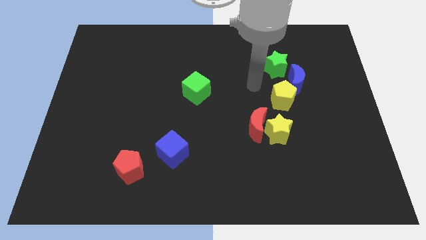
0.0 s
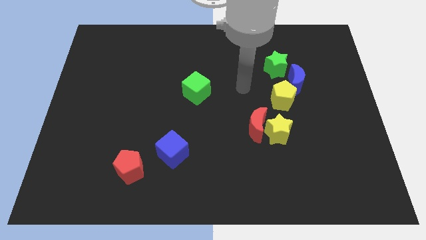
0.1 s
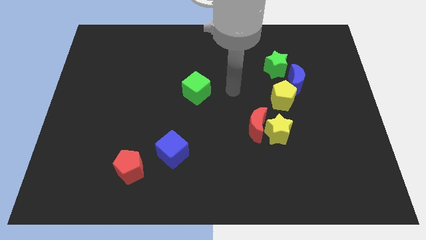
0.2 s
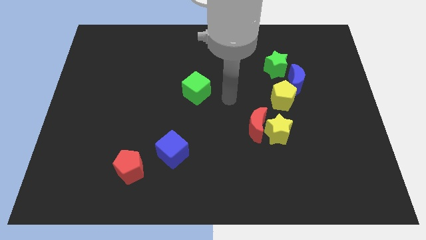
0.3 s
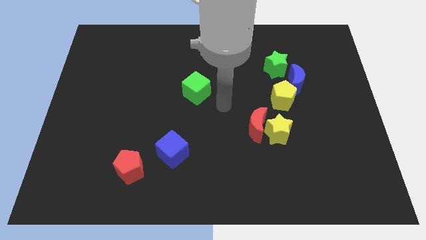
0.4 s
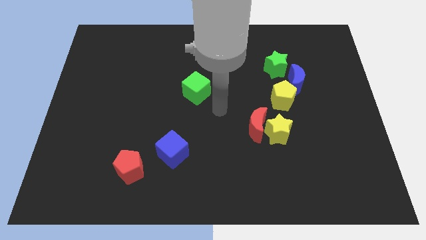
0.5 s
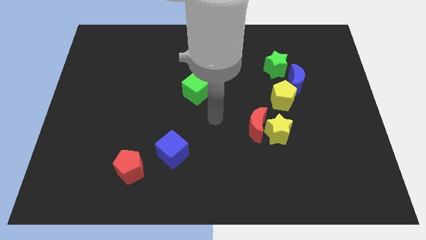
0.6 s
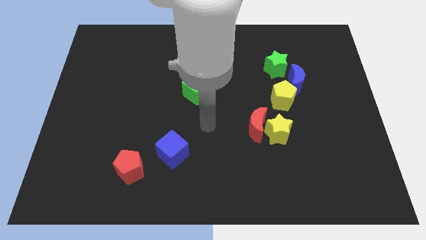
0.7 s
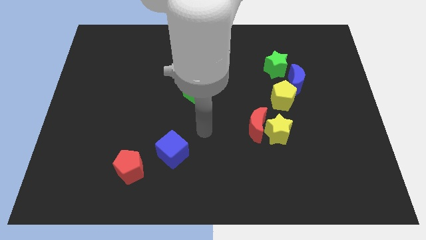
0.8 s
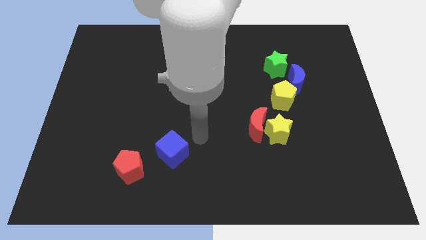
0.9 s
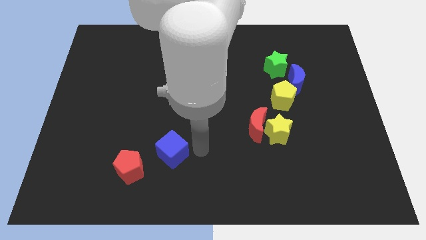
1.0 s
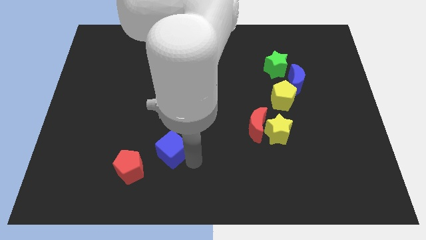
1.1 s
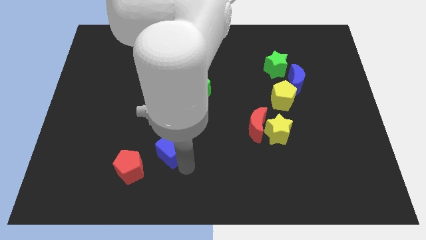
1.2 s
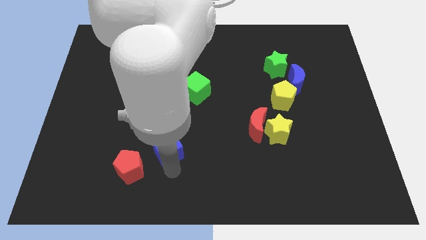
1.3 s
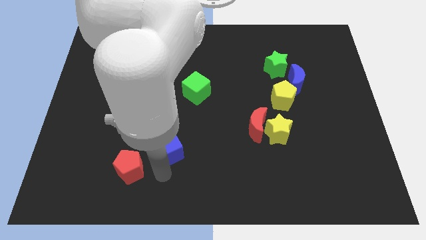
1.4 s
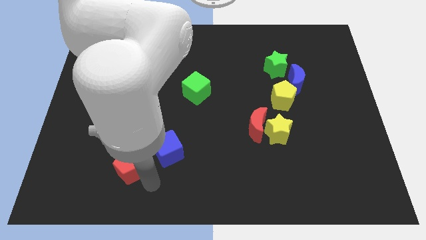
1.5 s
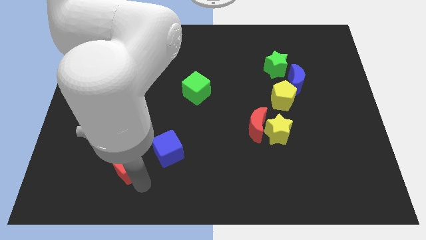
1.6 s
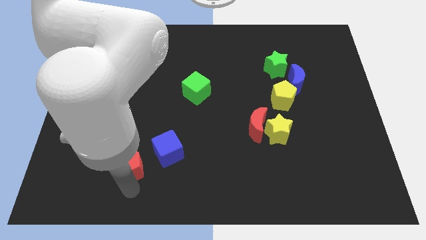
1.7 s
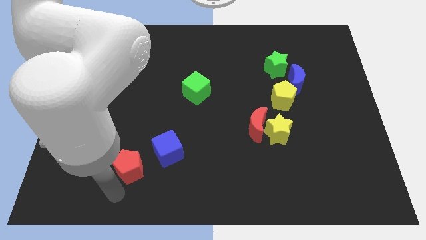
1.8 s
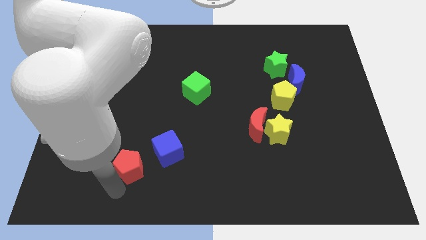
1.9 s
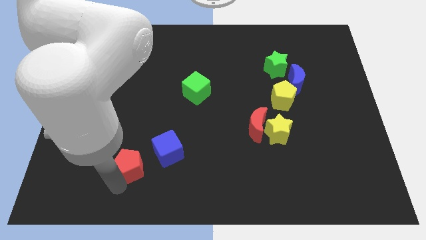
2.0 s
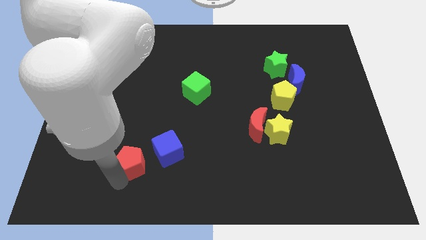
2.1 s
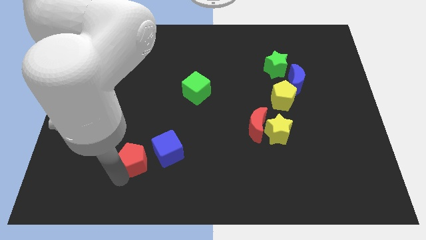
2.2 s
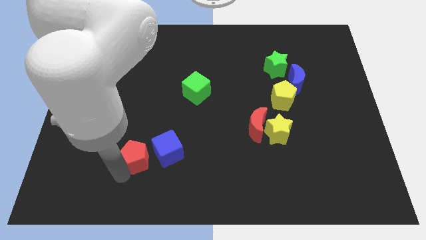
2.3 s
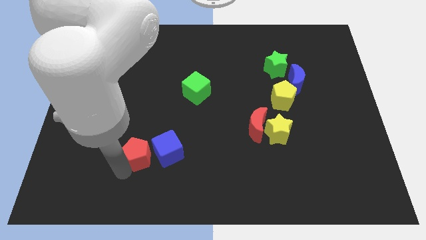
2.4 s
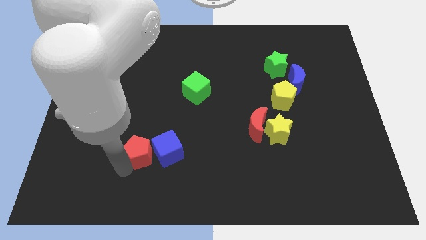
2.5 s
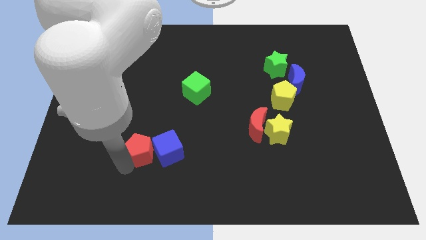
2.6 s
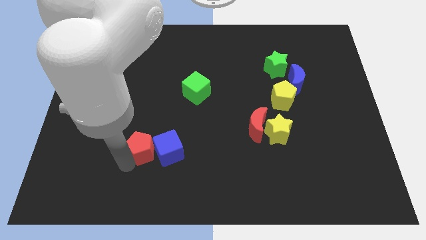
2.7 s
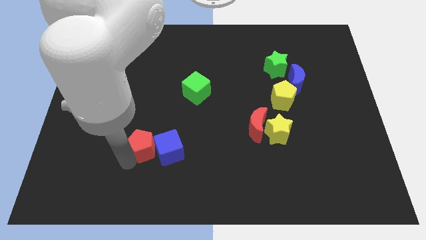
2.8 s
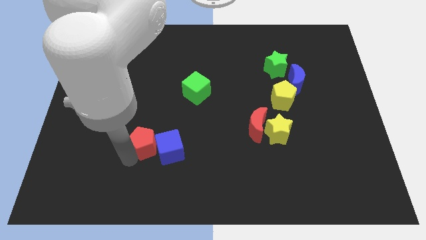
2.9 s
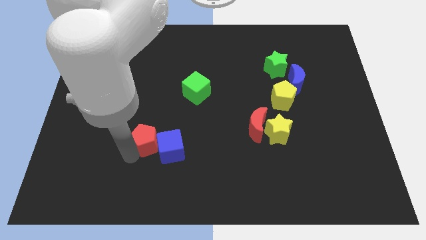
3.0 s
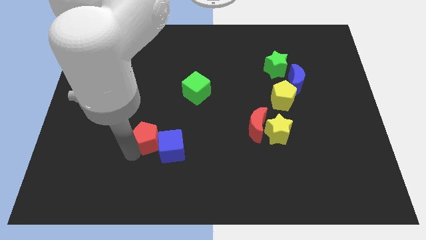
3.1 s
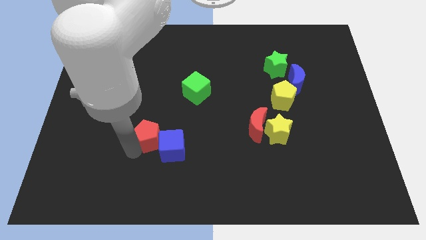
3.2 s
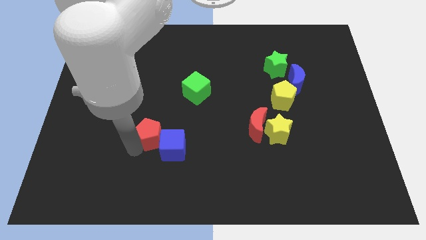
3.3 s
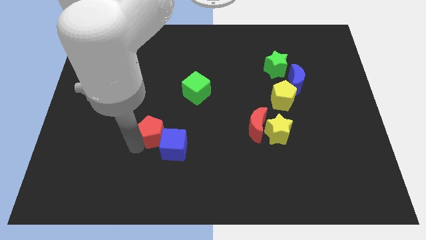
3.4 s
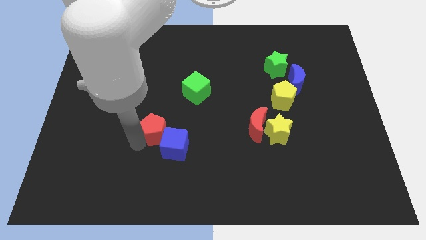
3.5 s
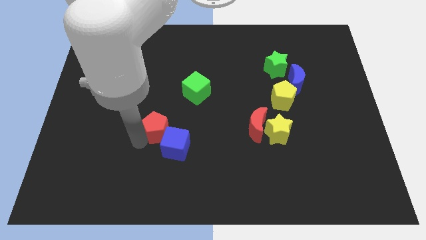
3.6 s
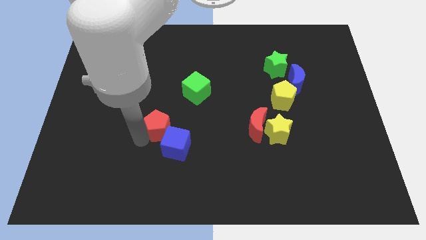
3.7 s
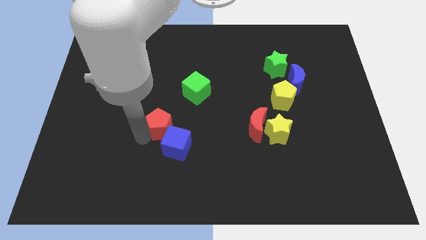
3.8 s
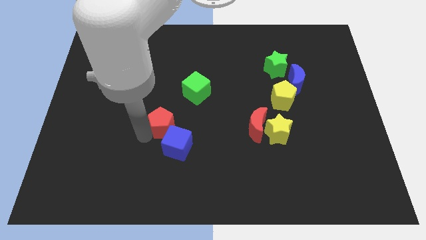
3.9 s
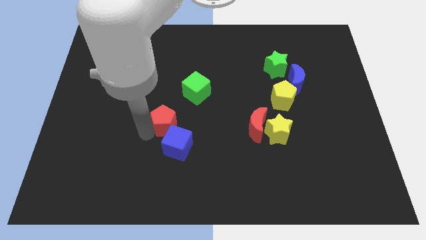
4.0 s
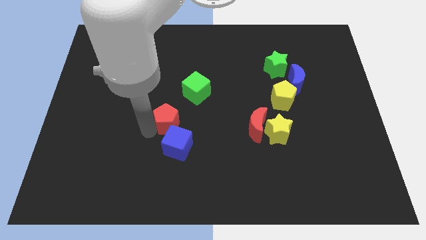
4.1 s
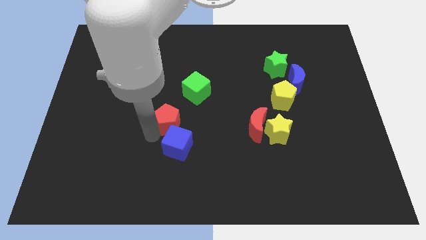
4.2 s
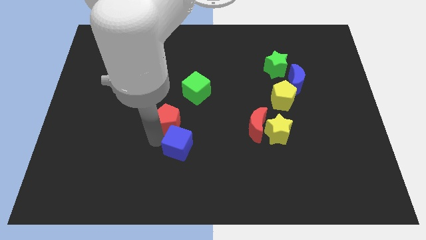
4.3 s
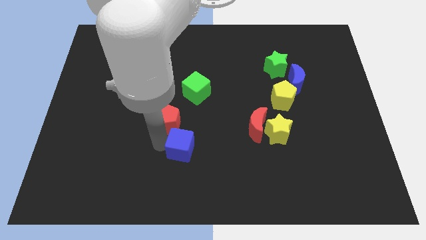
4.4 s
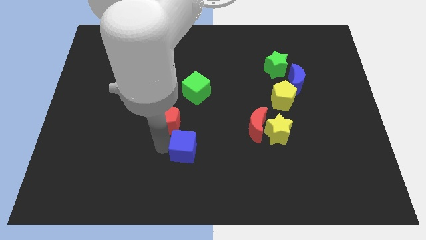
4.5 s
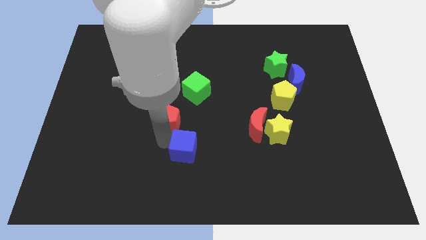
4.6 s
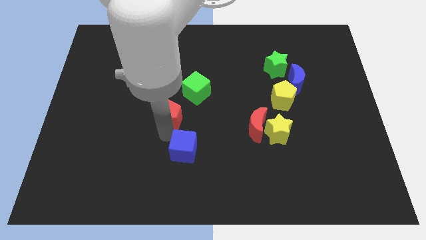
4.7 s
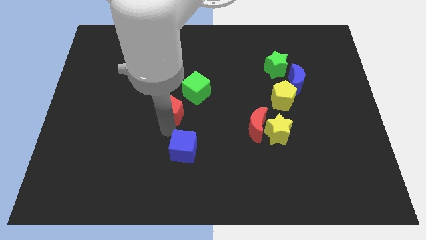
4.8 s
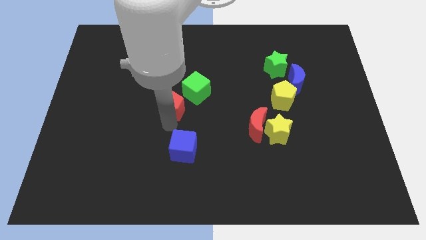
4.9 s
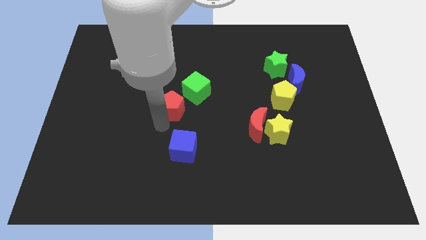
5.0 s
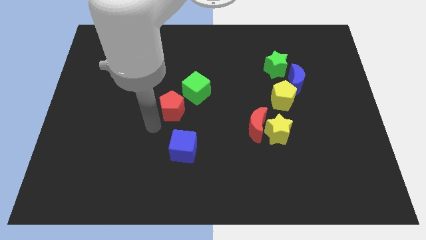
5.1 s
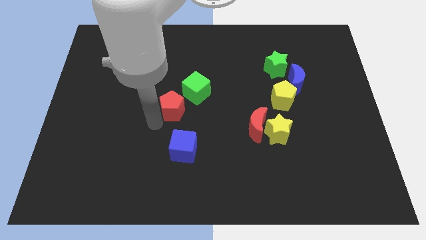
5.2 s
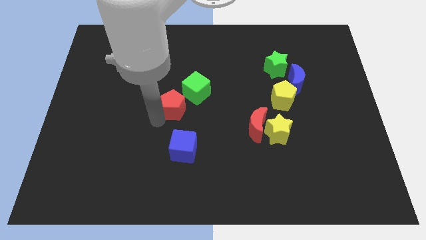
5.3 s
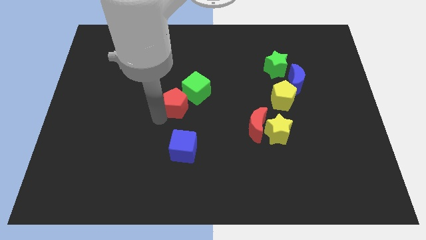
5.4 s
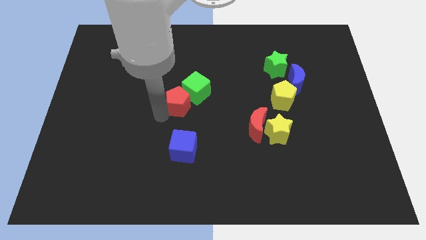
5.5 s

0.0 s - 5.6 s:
put the red pentagon to the green cube

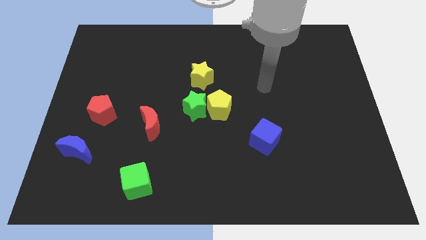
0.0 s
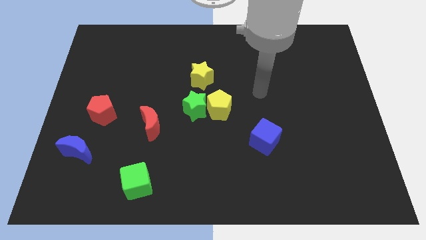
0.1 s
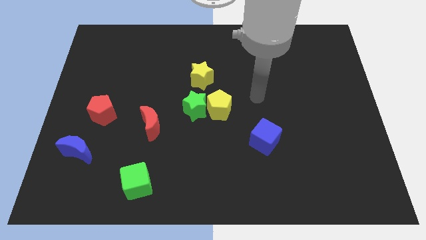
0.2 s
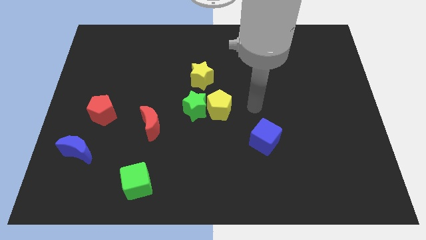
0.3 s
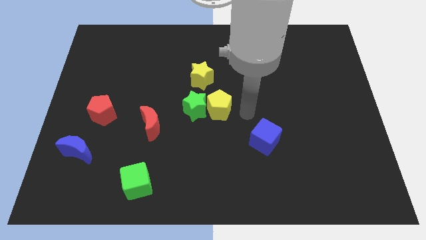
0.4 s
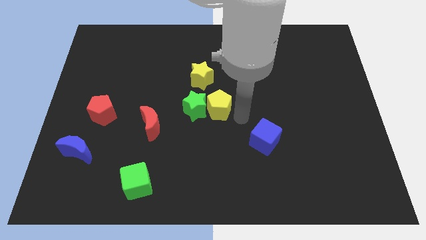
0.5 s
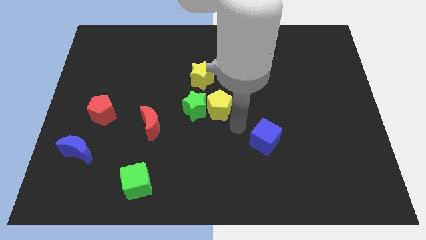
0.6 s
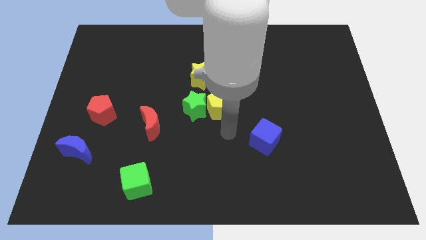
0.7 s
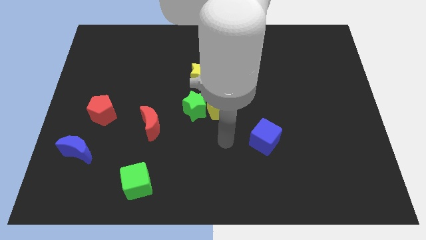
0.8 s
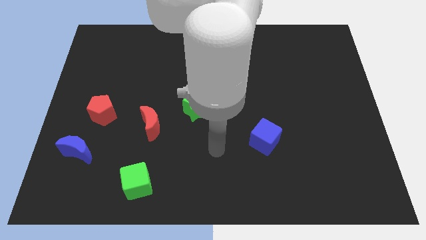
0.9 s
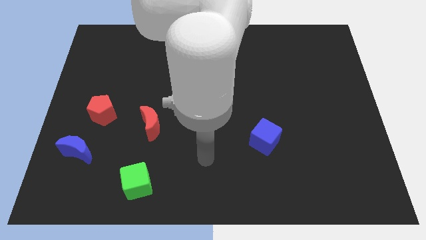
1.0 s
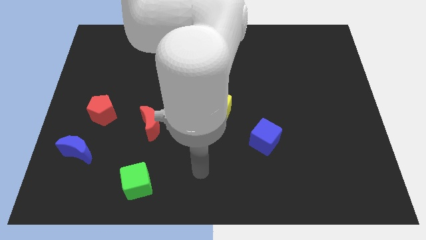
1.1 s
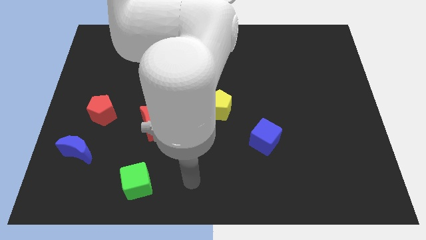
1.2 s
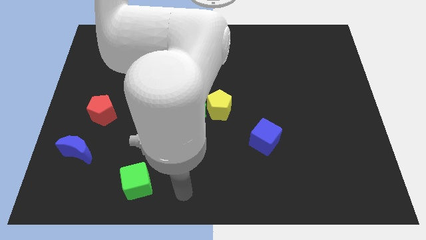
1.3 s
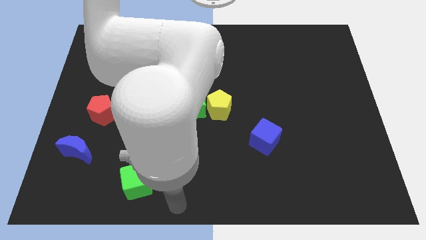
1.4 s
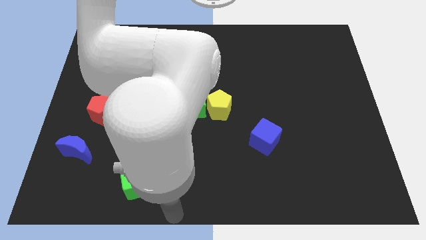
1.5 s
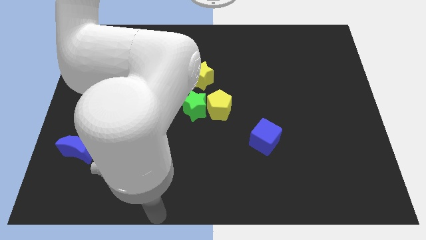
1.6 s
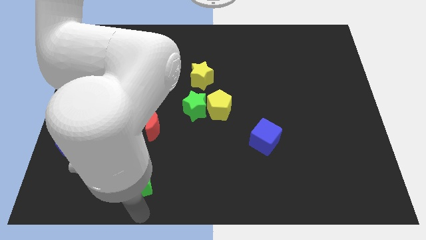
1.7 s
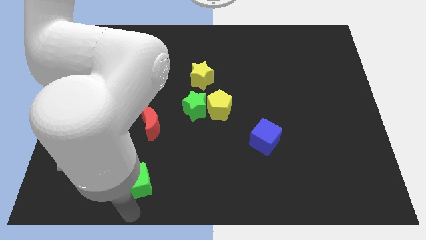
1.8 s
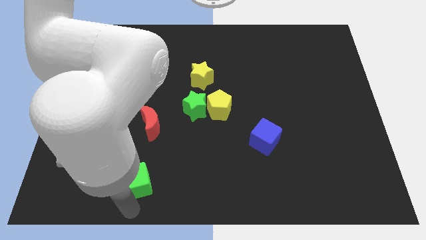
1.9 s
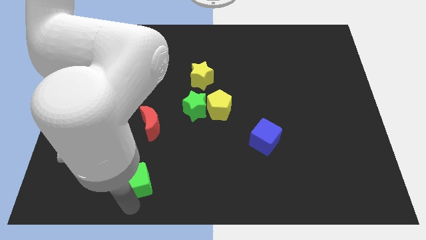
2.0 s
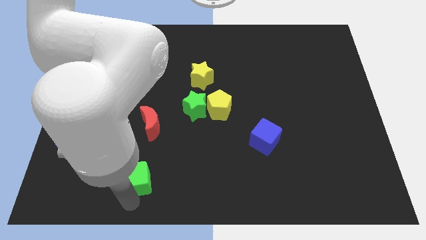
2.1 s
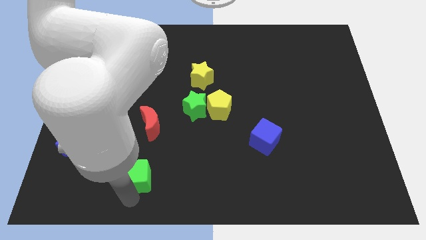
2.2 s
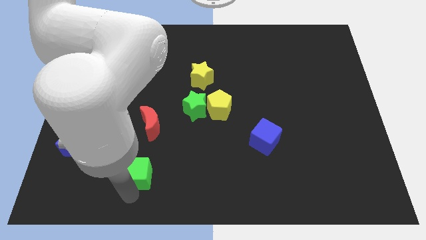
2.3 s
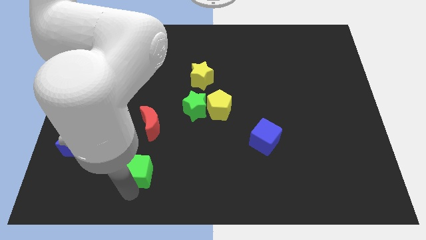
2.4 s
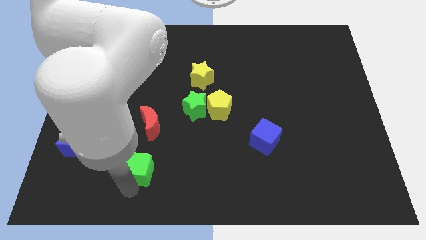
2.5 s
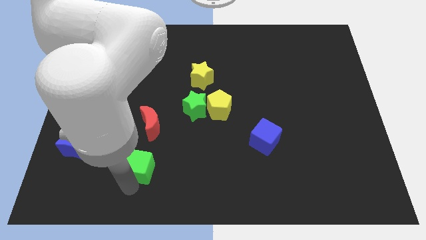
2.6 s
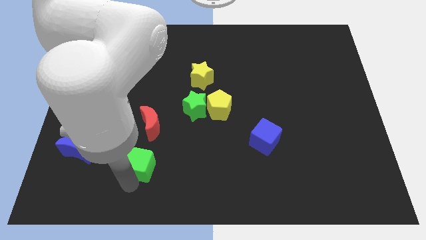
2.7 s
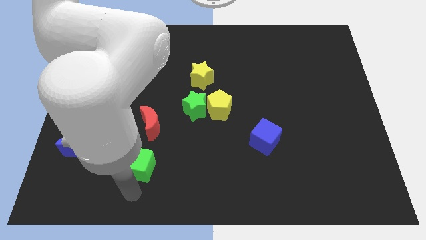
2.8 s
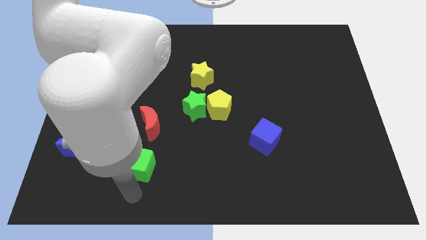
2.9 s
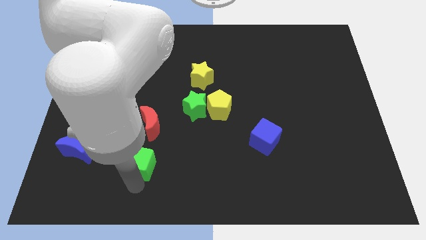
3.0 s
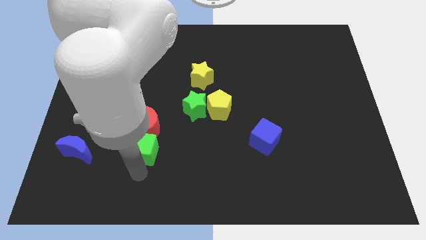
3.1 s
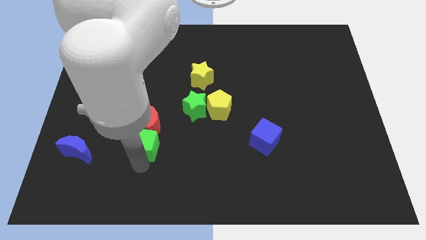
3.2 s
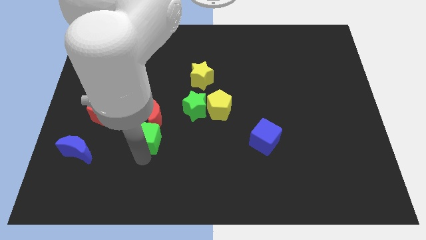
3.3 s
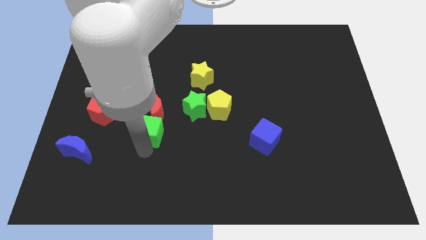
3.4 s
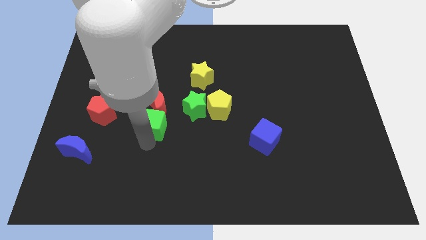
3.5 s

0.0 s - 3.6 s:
slide the green cube towards the red moon
